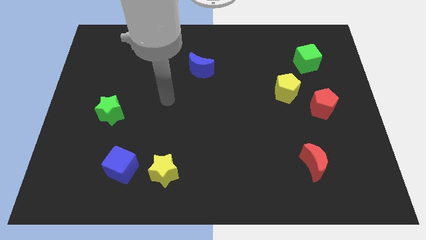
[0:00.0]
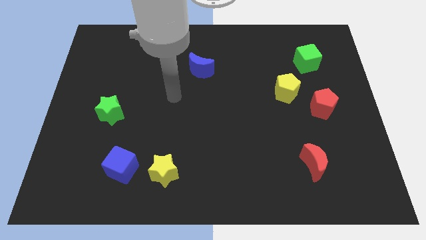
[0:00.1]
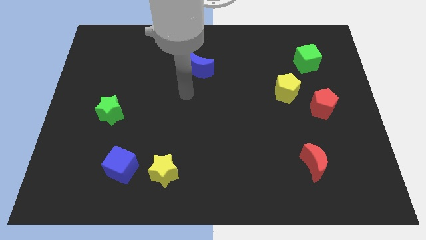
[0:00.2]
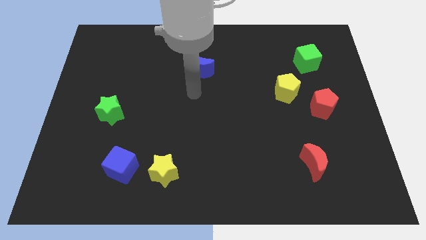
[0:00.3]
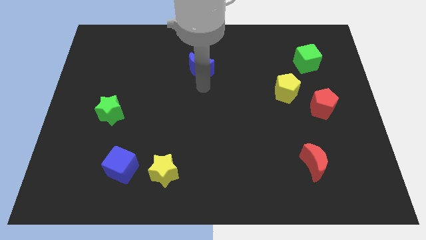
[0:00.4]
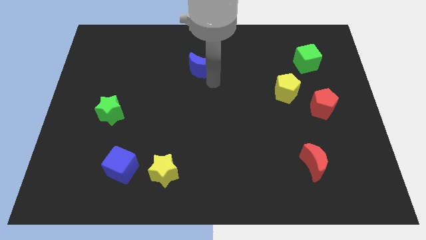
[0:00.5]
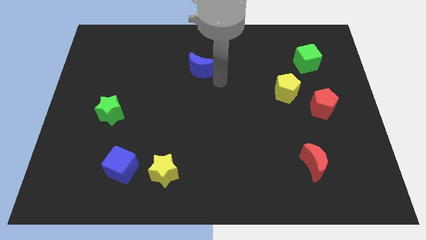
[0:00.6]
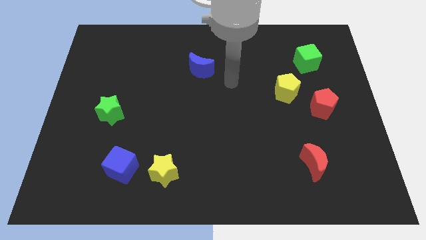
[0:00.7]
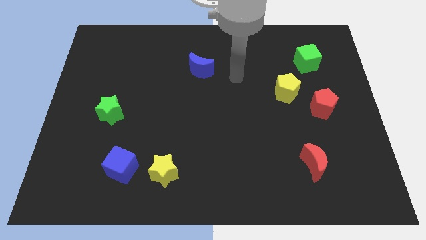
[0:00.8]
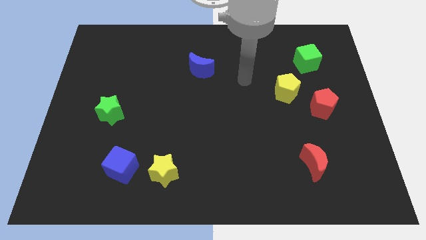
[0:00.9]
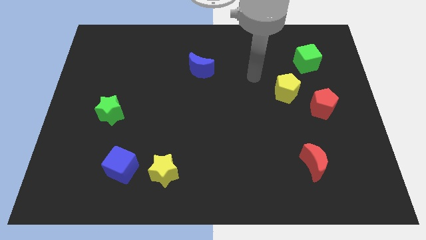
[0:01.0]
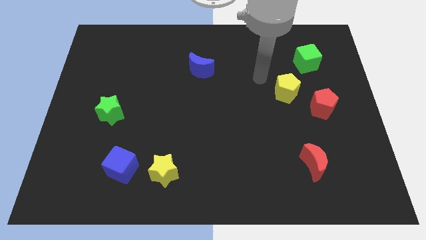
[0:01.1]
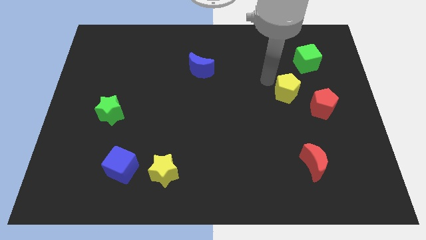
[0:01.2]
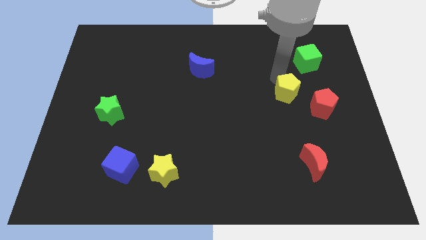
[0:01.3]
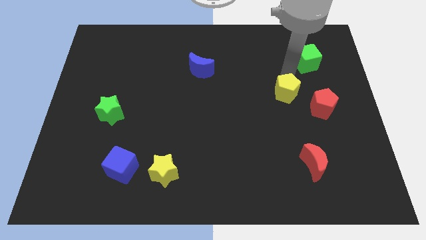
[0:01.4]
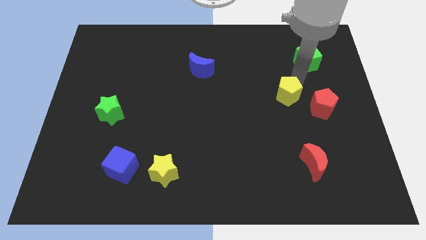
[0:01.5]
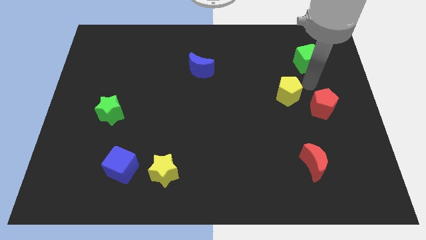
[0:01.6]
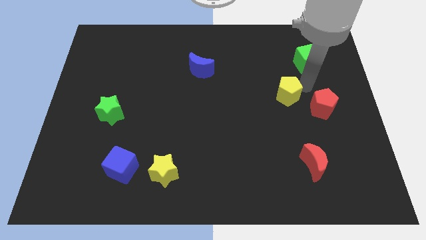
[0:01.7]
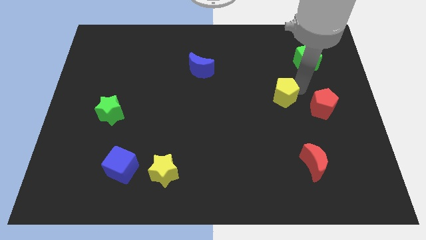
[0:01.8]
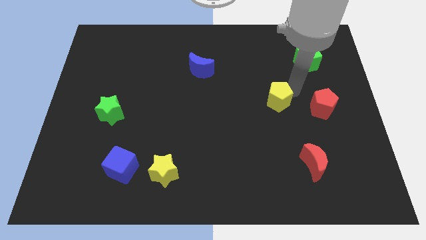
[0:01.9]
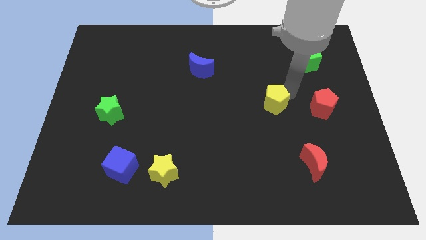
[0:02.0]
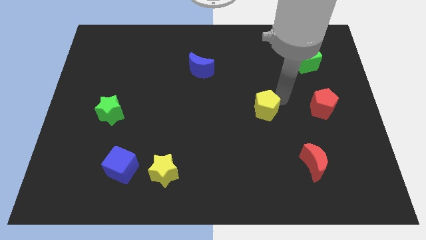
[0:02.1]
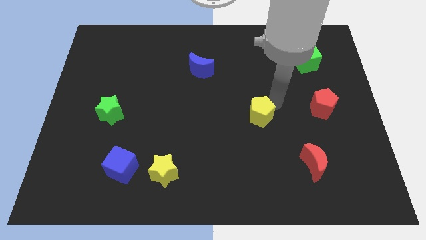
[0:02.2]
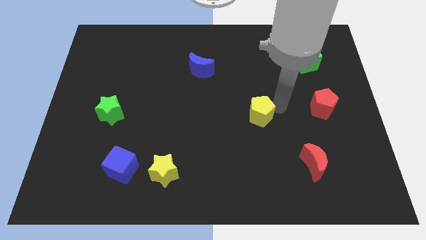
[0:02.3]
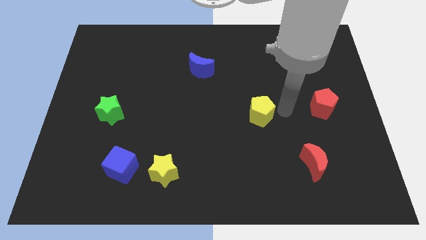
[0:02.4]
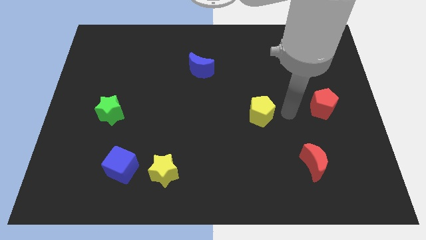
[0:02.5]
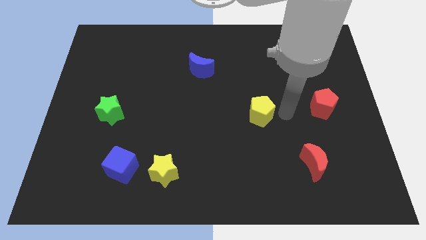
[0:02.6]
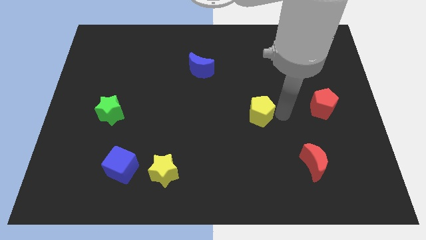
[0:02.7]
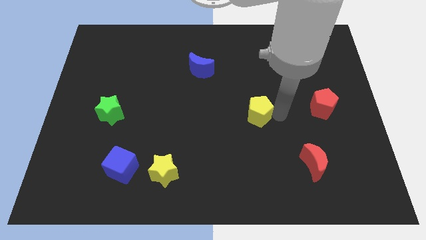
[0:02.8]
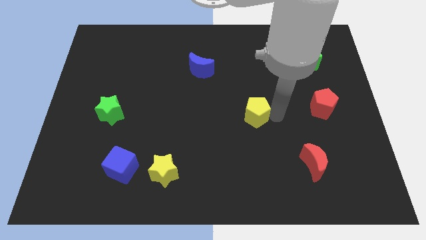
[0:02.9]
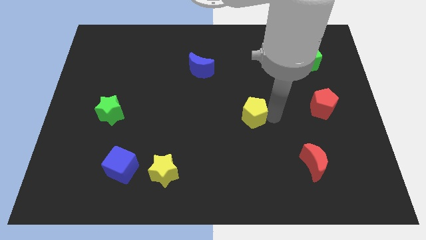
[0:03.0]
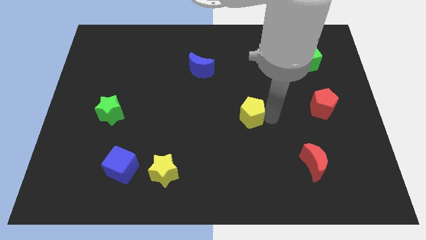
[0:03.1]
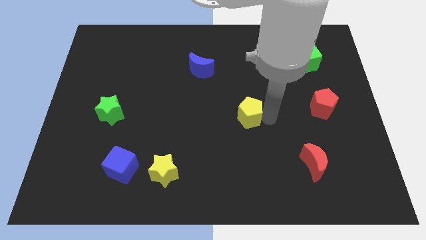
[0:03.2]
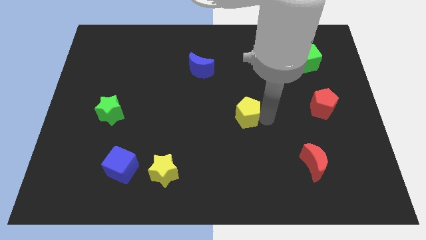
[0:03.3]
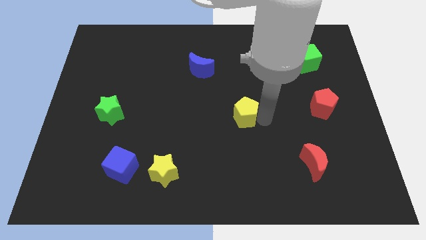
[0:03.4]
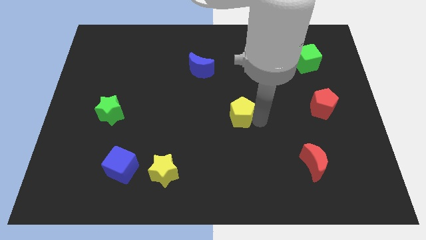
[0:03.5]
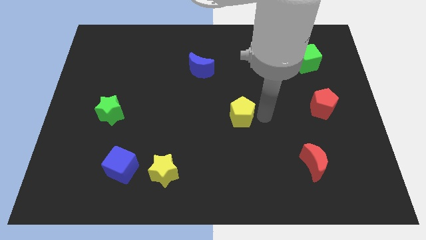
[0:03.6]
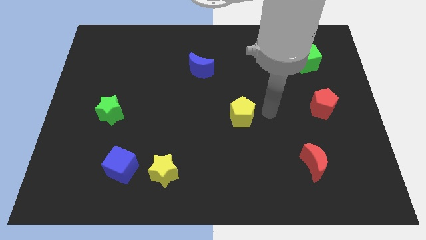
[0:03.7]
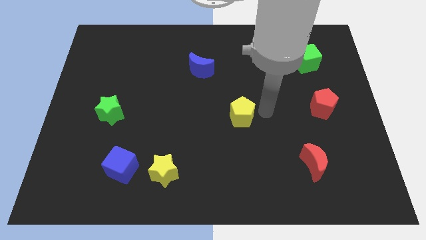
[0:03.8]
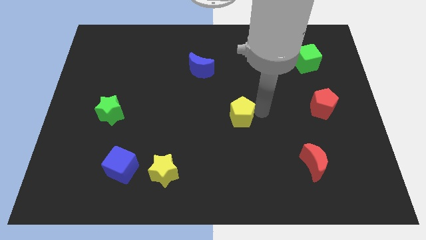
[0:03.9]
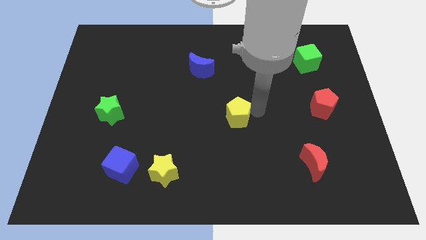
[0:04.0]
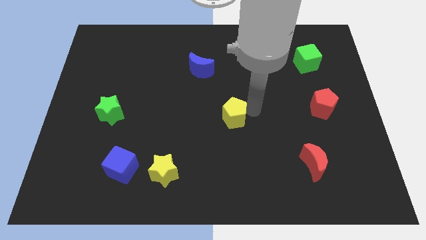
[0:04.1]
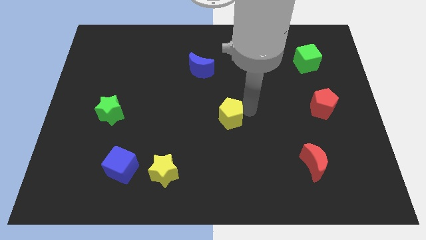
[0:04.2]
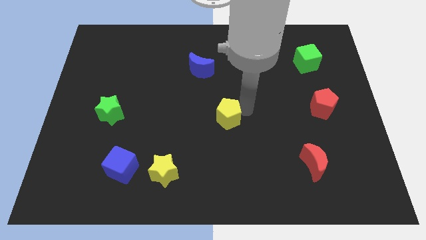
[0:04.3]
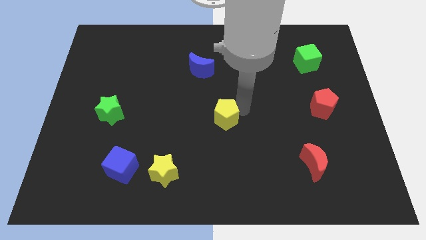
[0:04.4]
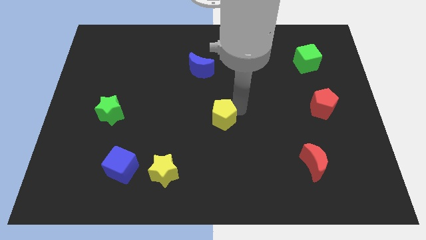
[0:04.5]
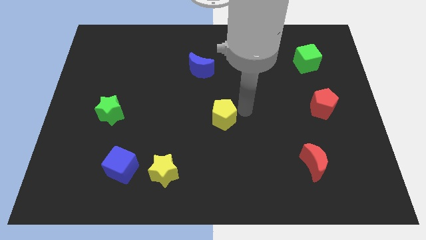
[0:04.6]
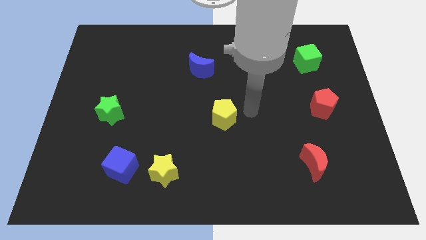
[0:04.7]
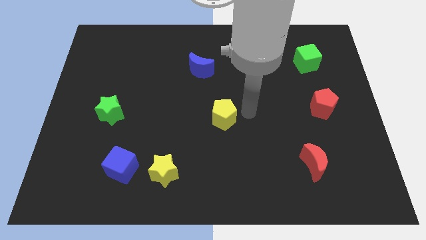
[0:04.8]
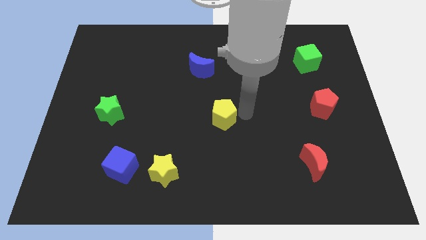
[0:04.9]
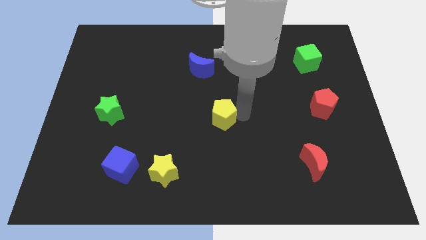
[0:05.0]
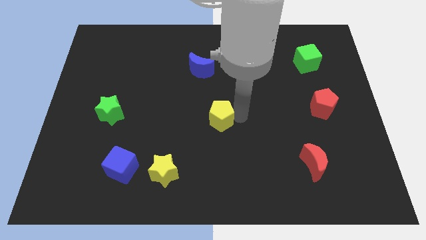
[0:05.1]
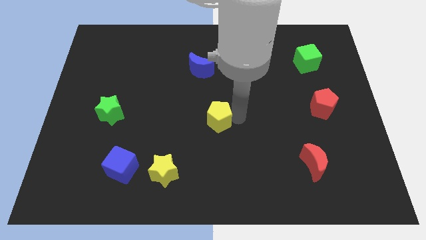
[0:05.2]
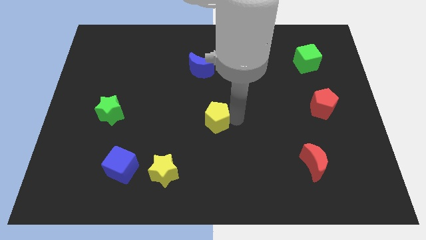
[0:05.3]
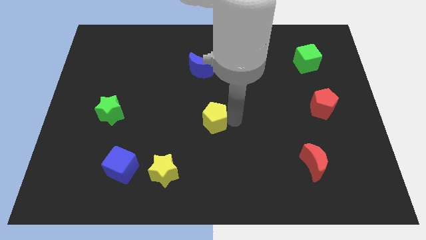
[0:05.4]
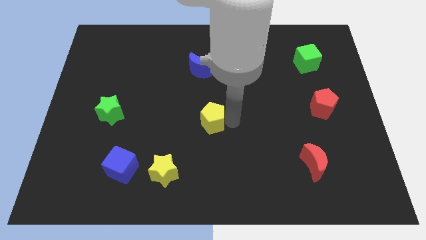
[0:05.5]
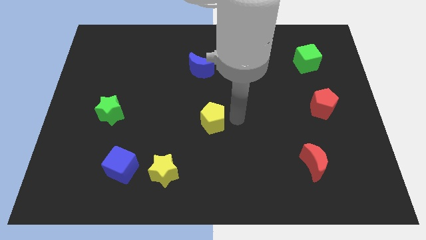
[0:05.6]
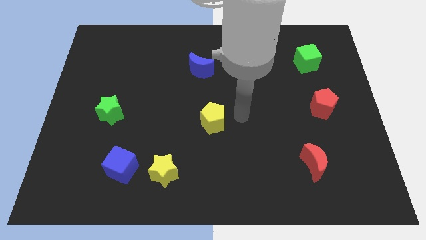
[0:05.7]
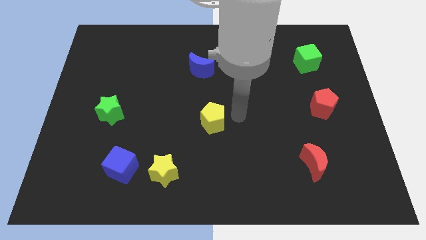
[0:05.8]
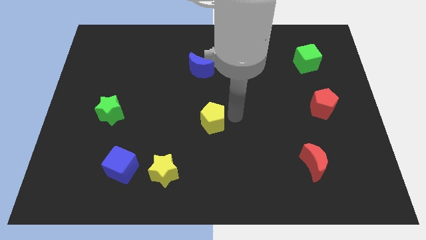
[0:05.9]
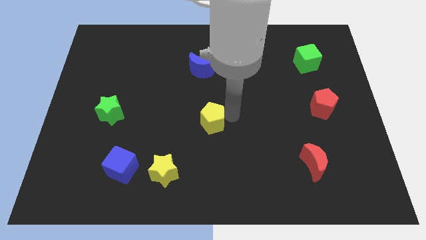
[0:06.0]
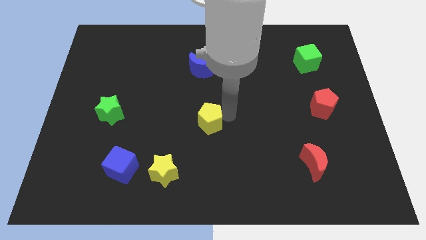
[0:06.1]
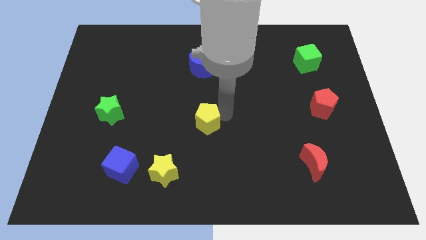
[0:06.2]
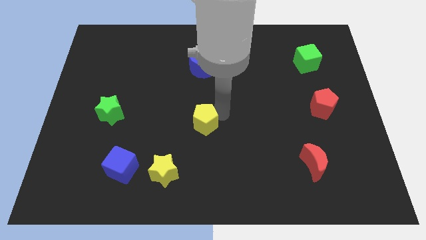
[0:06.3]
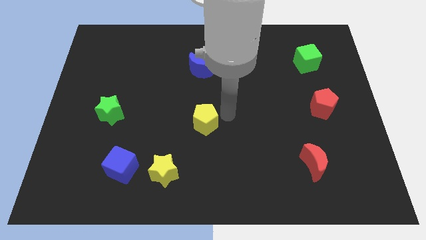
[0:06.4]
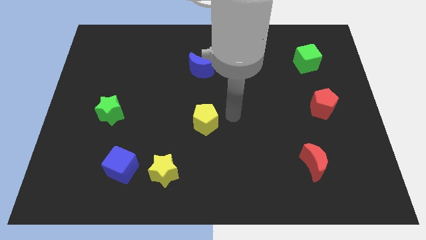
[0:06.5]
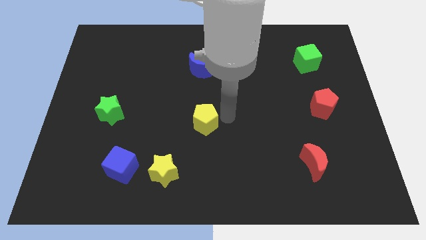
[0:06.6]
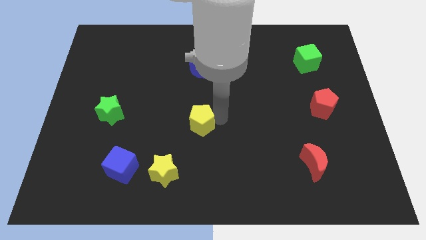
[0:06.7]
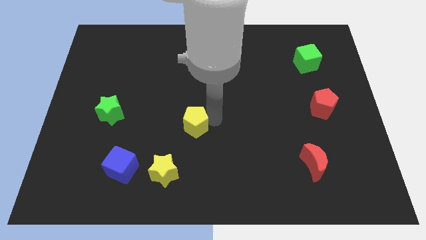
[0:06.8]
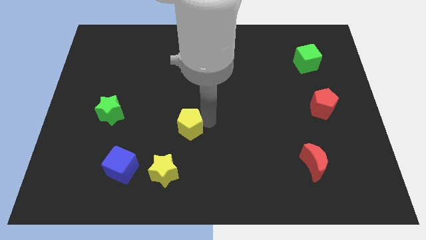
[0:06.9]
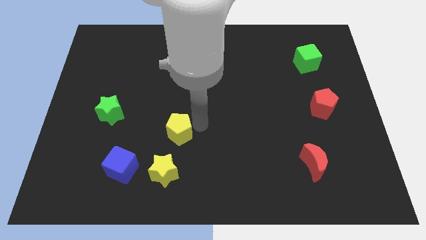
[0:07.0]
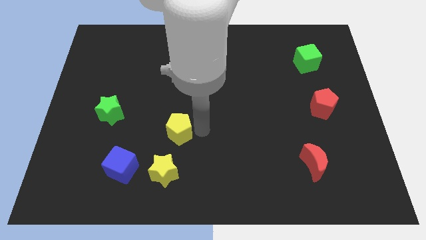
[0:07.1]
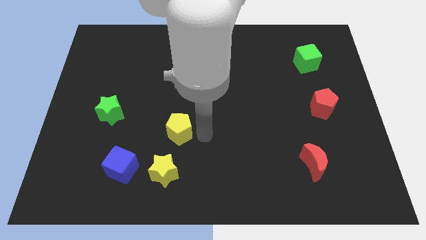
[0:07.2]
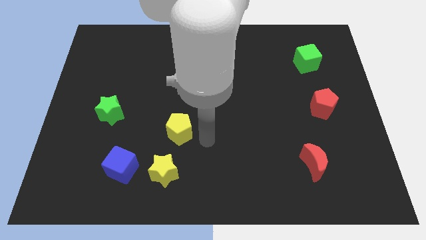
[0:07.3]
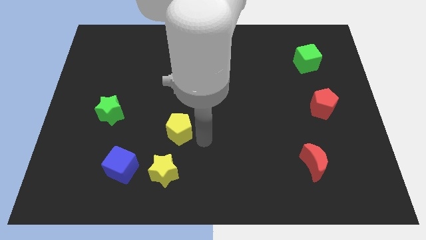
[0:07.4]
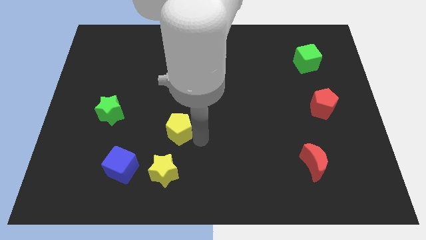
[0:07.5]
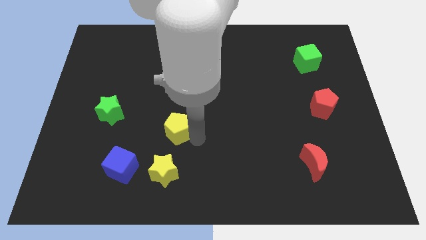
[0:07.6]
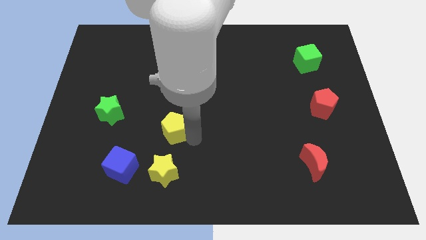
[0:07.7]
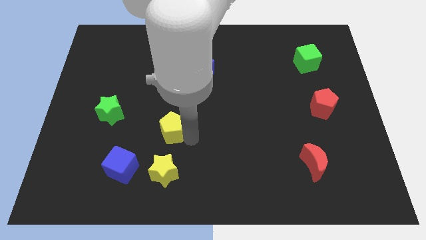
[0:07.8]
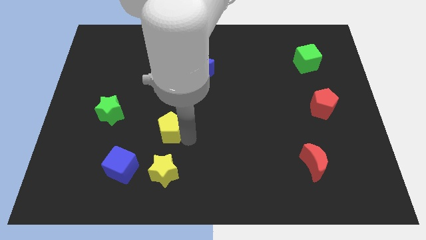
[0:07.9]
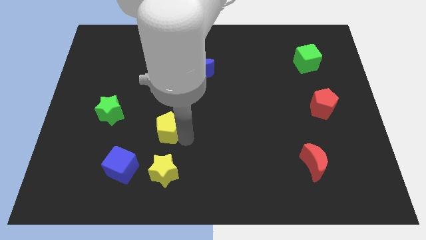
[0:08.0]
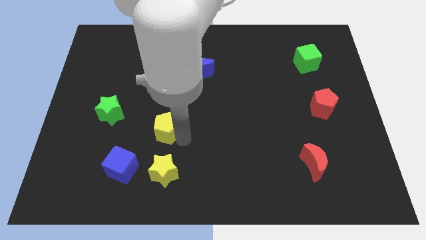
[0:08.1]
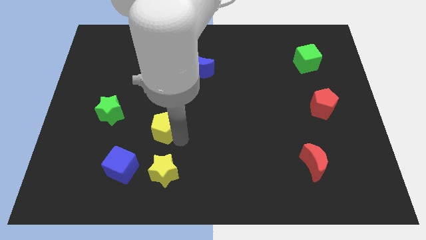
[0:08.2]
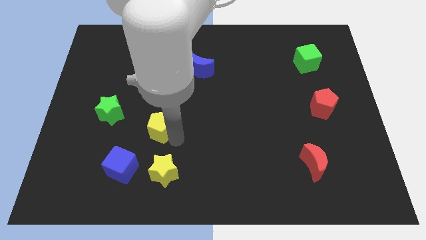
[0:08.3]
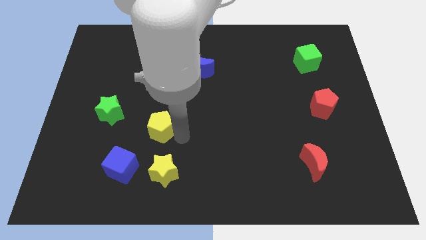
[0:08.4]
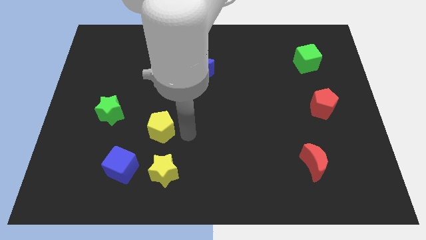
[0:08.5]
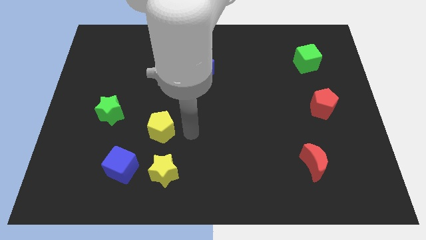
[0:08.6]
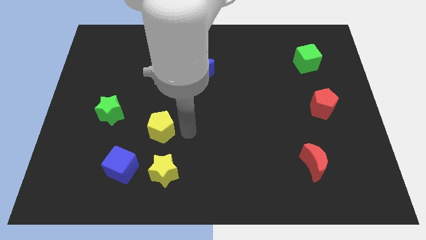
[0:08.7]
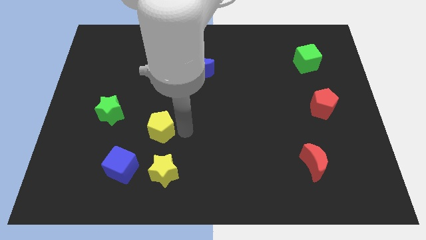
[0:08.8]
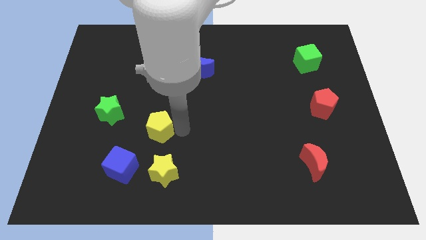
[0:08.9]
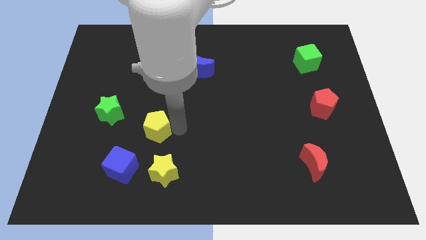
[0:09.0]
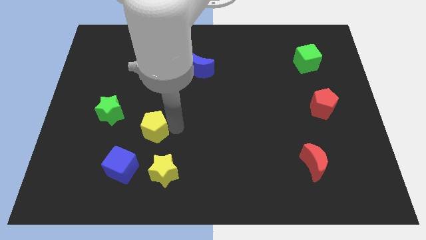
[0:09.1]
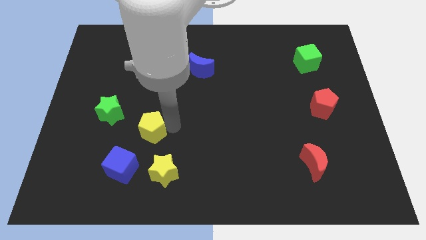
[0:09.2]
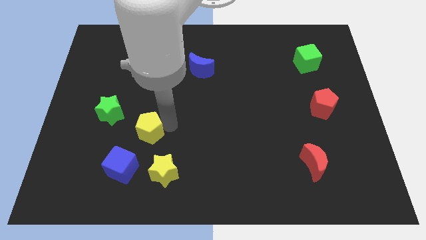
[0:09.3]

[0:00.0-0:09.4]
slide the yellow pentagon above the blue cube
